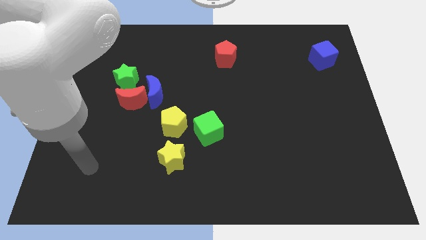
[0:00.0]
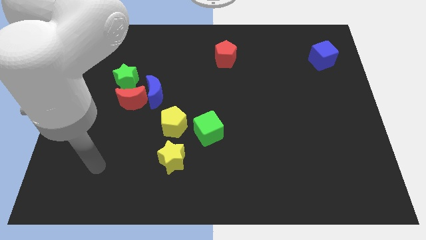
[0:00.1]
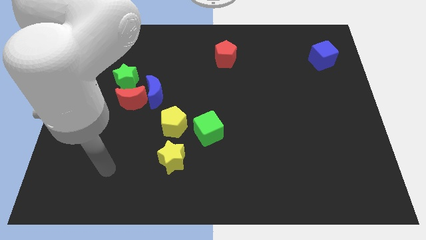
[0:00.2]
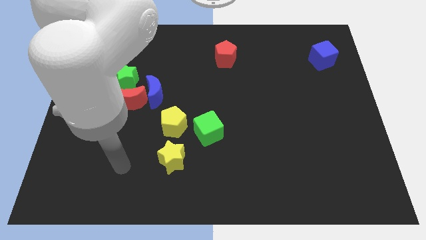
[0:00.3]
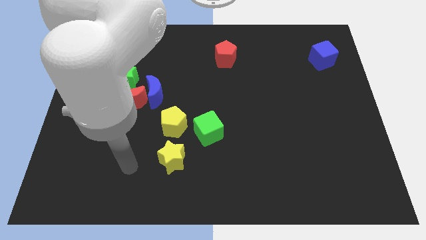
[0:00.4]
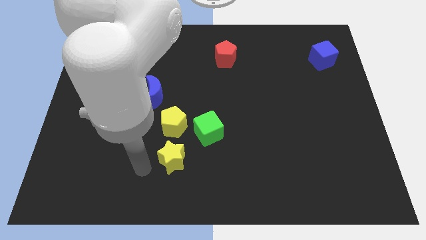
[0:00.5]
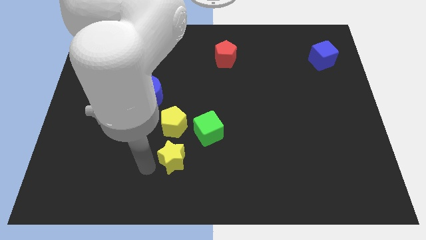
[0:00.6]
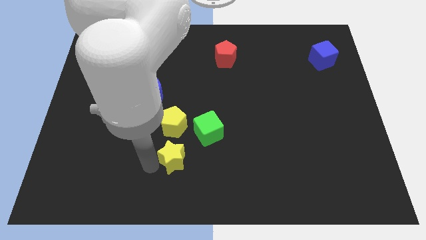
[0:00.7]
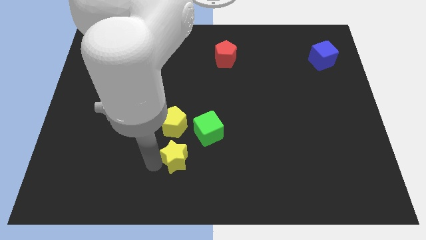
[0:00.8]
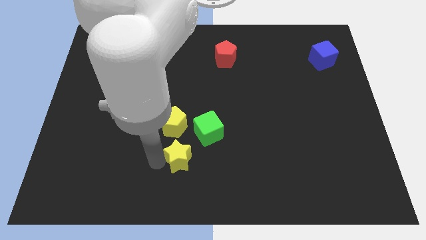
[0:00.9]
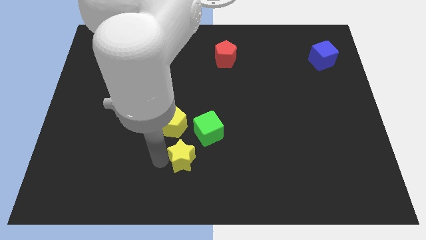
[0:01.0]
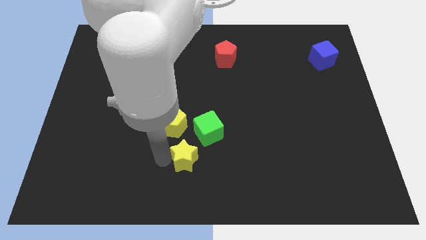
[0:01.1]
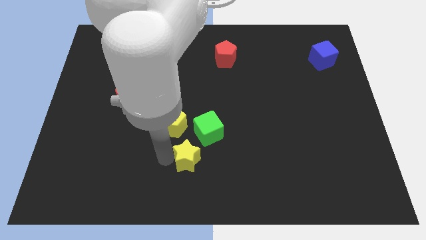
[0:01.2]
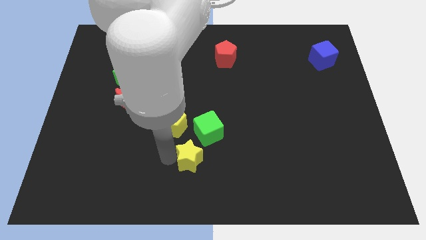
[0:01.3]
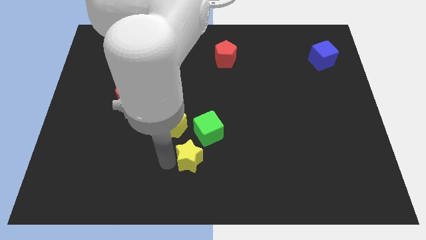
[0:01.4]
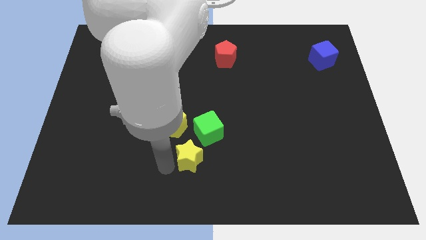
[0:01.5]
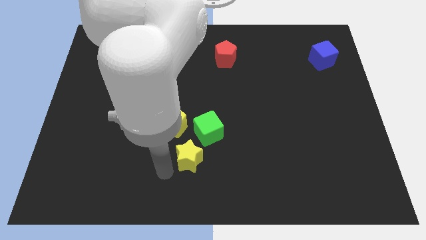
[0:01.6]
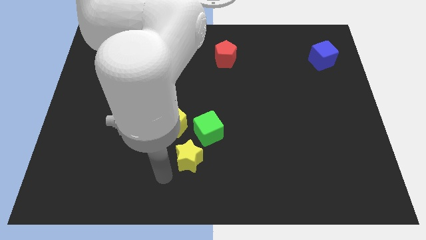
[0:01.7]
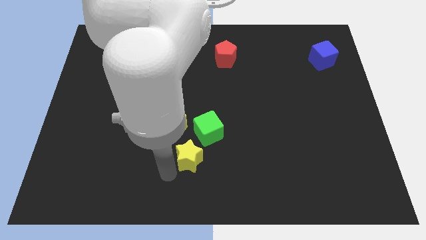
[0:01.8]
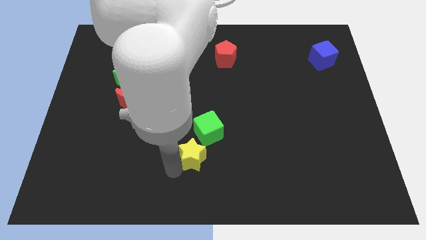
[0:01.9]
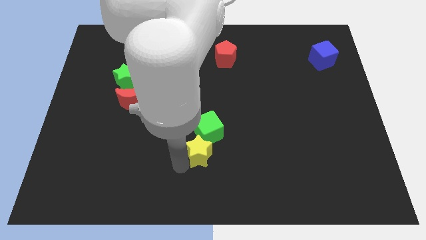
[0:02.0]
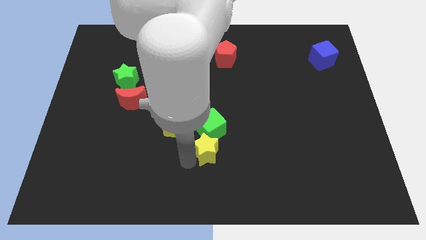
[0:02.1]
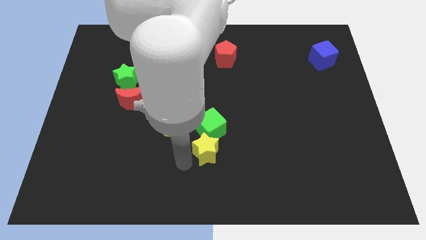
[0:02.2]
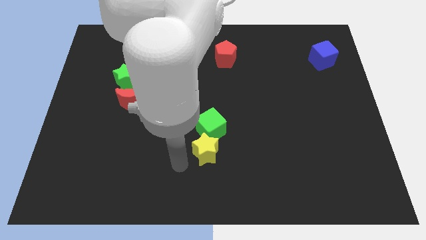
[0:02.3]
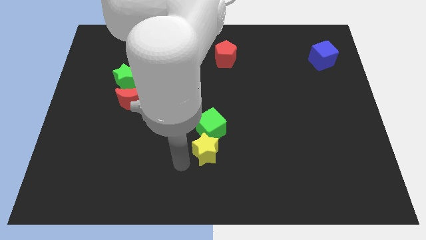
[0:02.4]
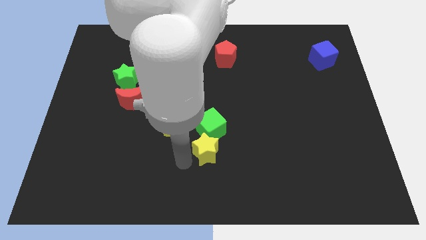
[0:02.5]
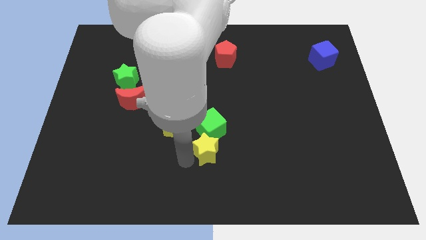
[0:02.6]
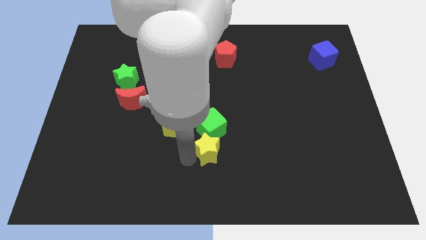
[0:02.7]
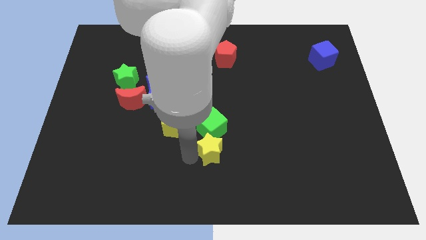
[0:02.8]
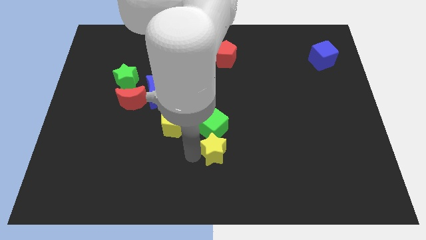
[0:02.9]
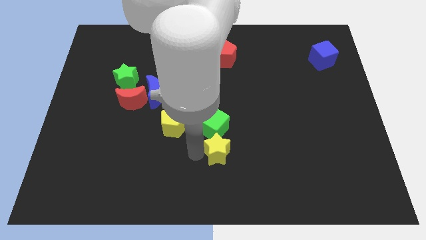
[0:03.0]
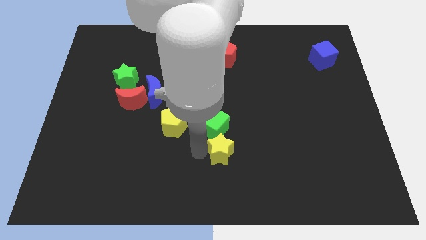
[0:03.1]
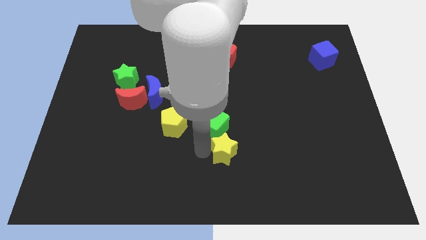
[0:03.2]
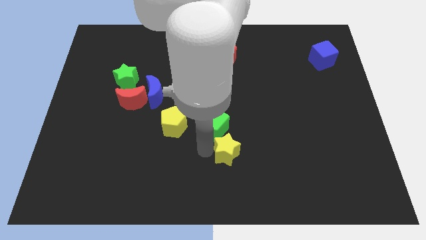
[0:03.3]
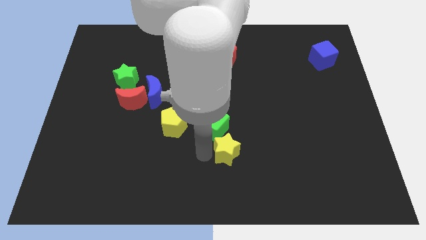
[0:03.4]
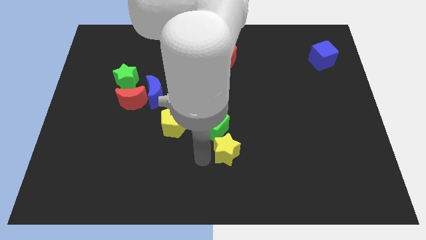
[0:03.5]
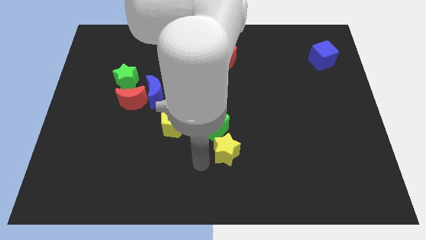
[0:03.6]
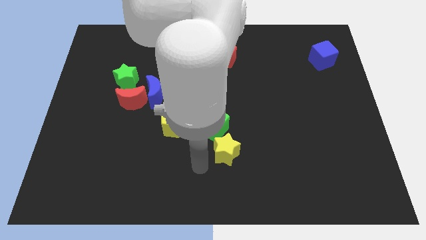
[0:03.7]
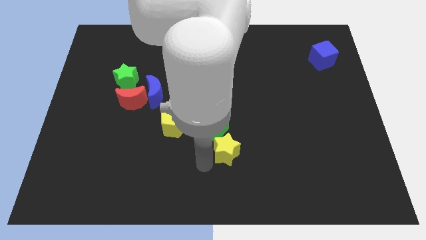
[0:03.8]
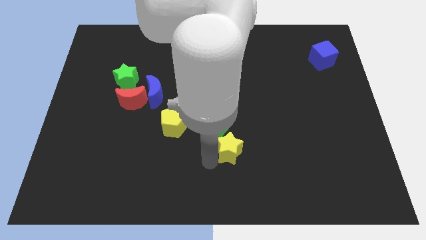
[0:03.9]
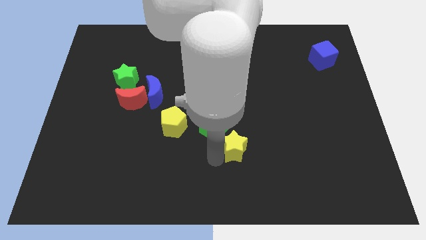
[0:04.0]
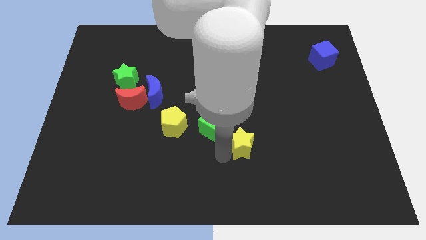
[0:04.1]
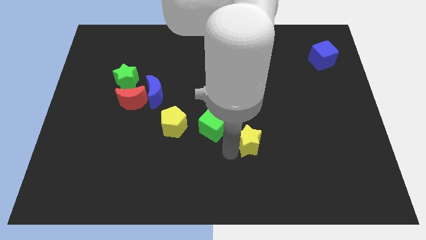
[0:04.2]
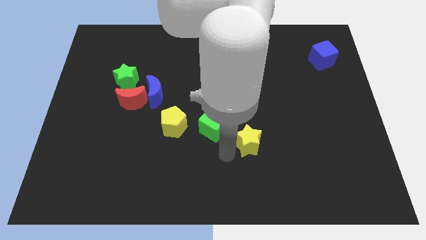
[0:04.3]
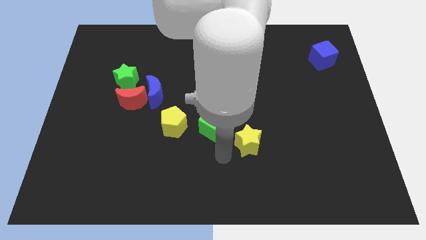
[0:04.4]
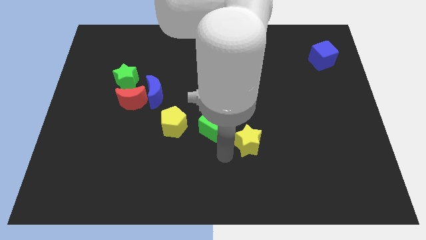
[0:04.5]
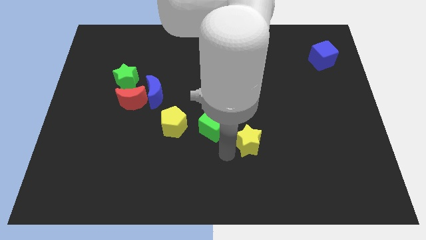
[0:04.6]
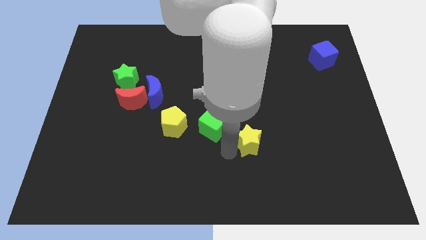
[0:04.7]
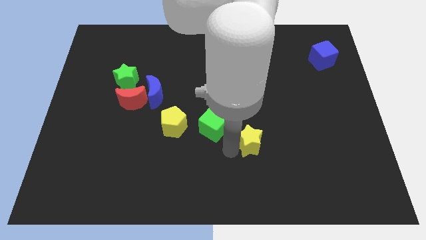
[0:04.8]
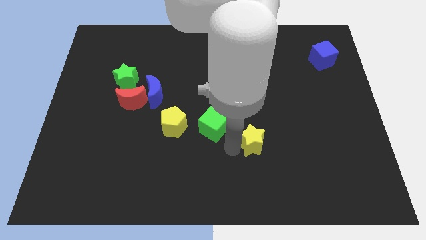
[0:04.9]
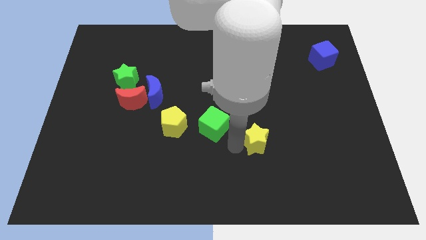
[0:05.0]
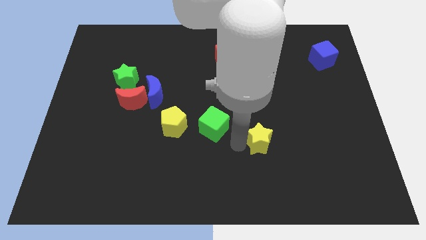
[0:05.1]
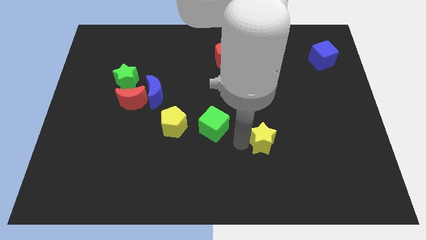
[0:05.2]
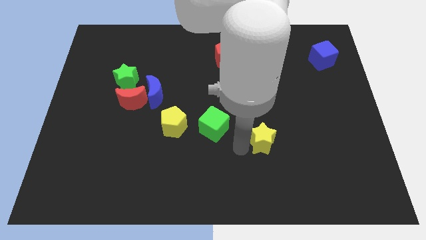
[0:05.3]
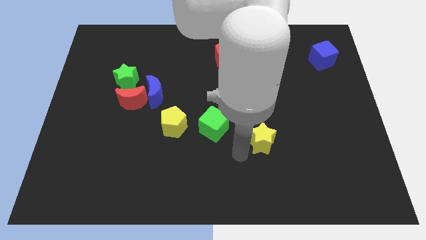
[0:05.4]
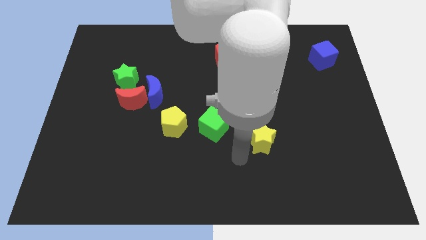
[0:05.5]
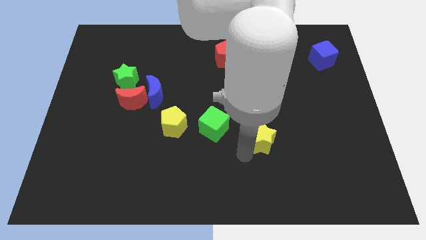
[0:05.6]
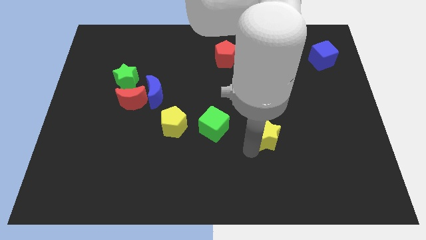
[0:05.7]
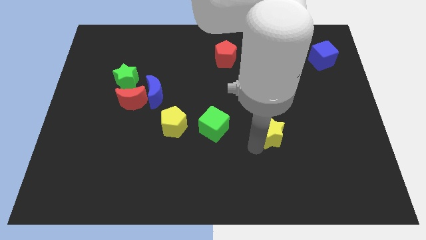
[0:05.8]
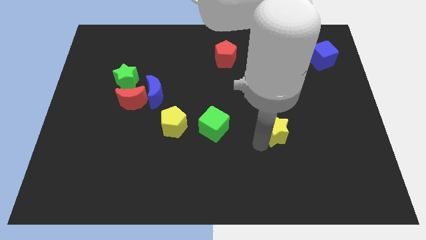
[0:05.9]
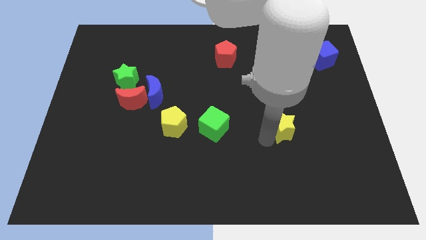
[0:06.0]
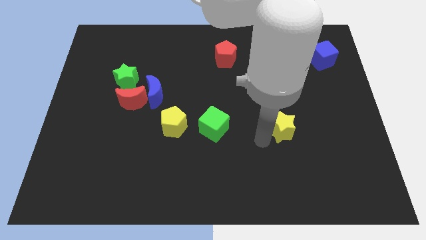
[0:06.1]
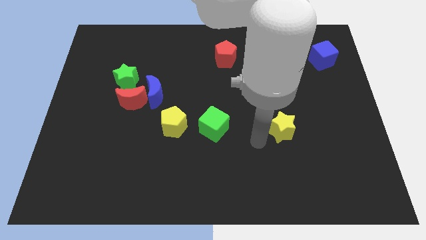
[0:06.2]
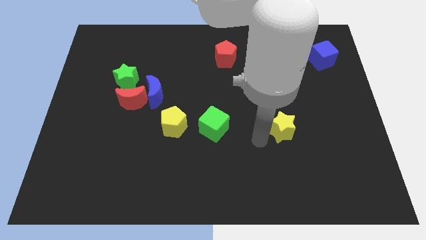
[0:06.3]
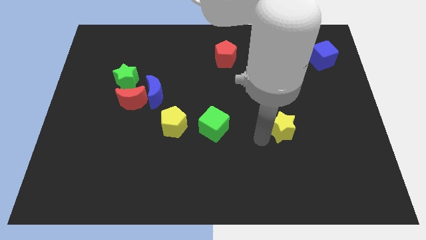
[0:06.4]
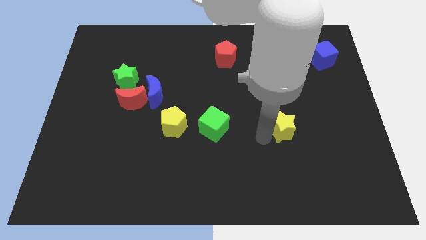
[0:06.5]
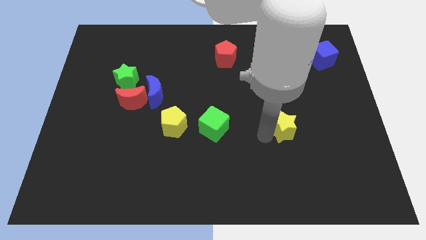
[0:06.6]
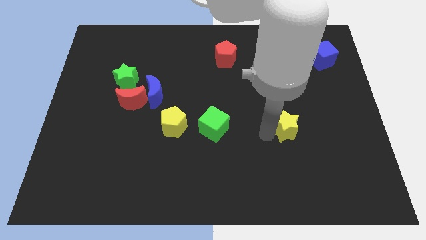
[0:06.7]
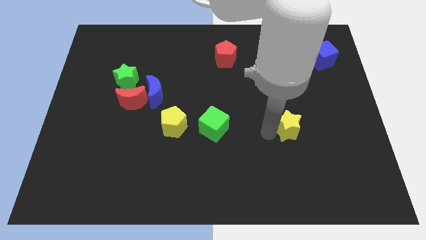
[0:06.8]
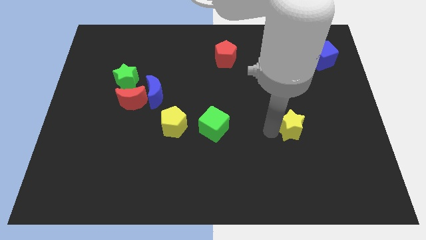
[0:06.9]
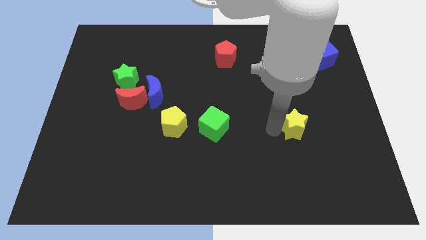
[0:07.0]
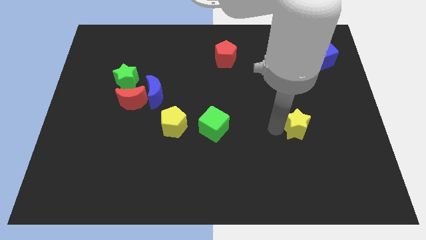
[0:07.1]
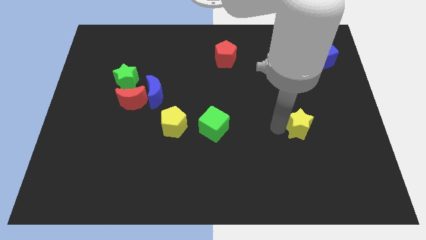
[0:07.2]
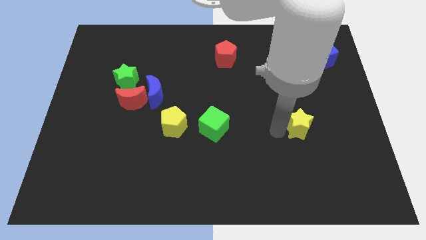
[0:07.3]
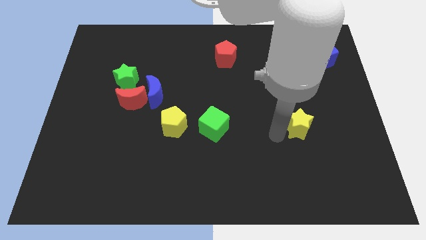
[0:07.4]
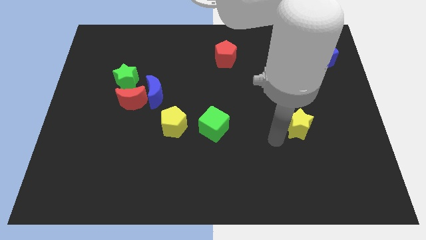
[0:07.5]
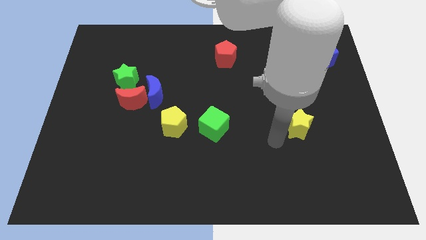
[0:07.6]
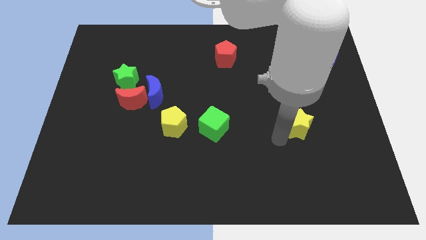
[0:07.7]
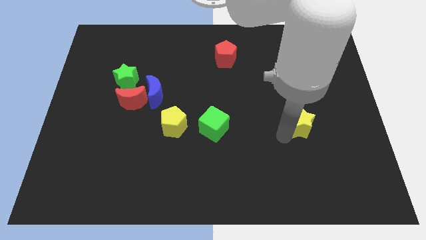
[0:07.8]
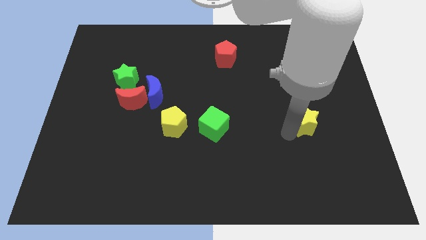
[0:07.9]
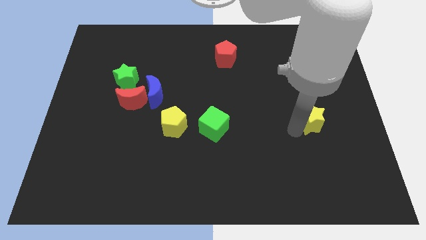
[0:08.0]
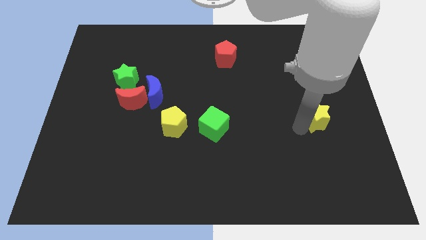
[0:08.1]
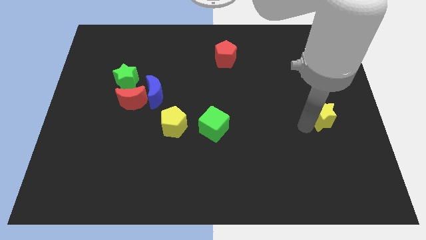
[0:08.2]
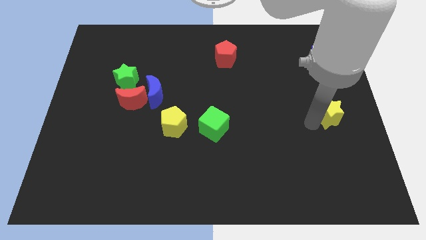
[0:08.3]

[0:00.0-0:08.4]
slide the yellow star to the right side of the board
